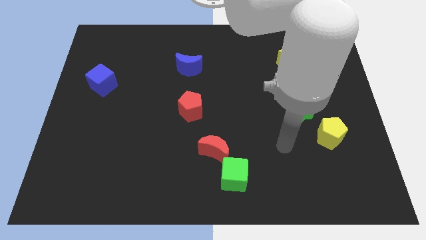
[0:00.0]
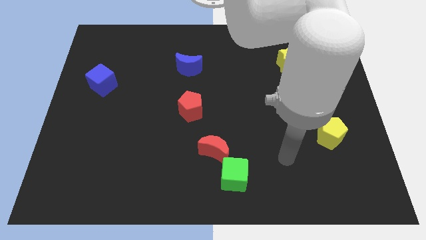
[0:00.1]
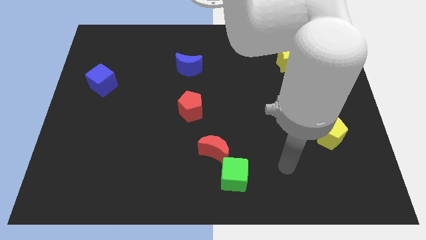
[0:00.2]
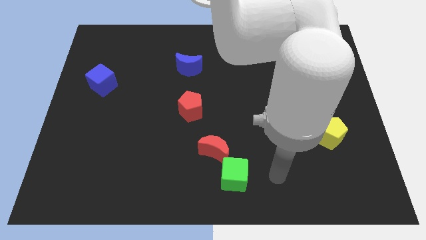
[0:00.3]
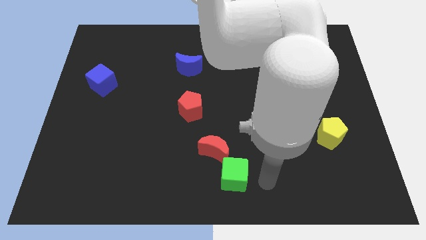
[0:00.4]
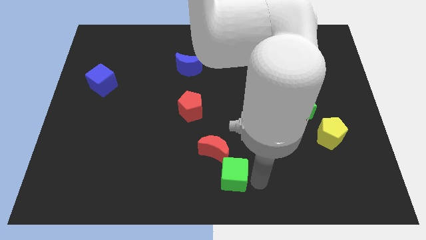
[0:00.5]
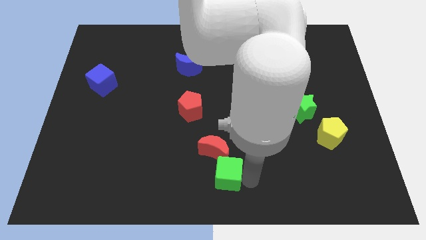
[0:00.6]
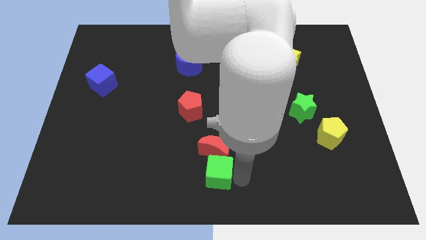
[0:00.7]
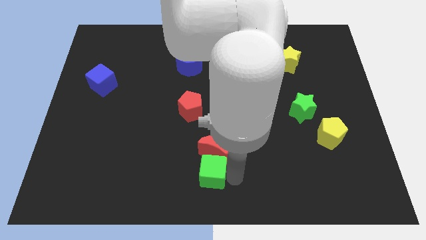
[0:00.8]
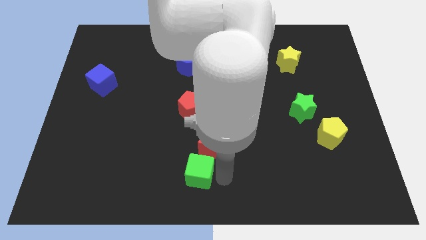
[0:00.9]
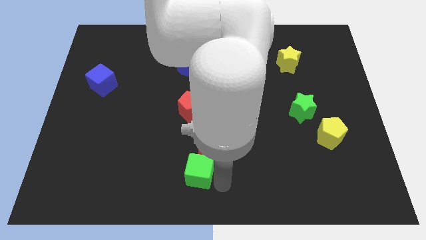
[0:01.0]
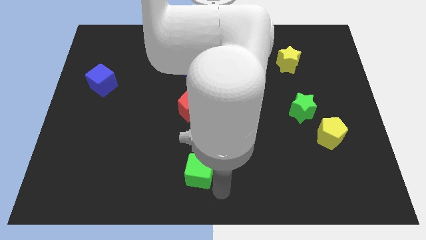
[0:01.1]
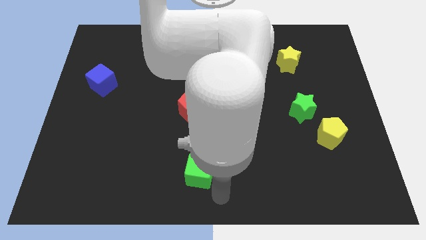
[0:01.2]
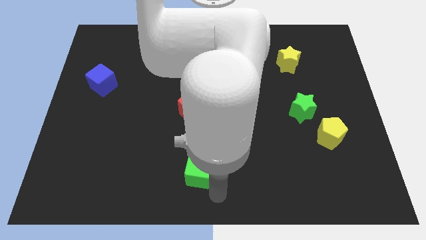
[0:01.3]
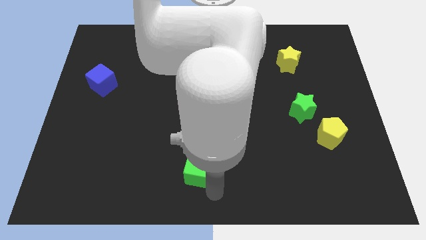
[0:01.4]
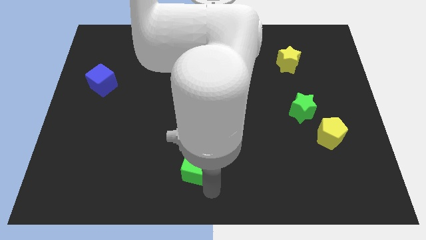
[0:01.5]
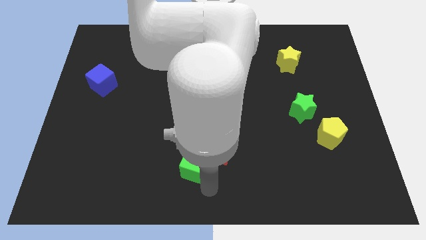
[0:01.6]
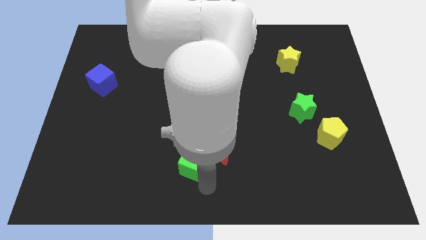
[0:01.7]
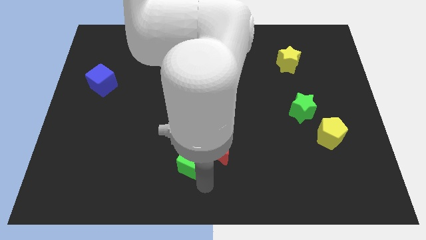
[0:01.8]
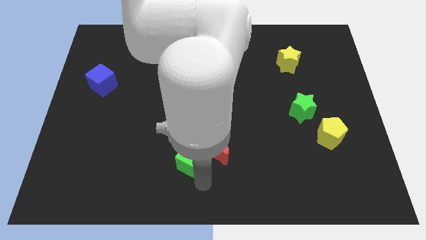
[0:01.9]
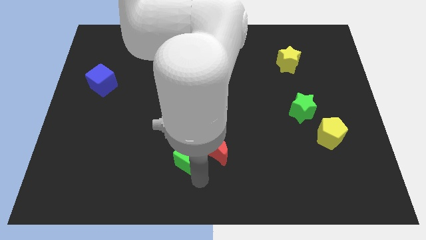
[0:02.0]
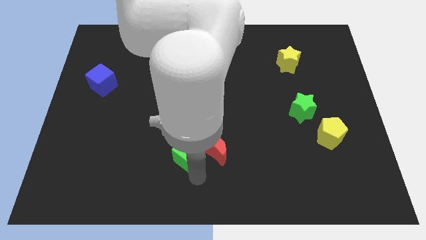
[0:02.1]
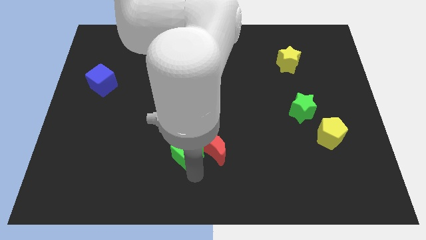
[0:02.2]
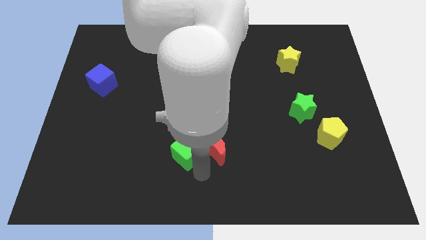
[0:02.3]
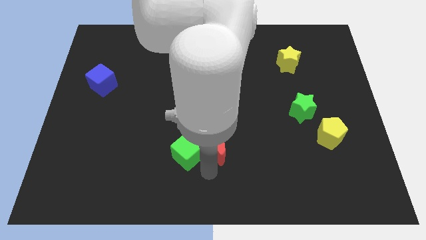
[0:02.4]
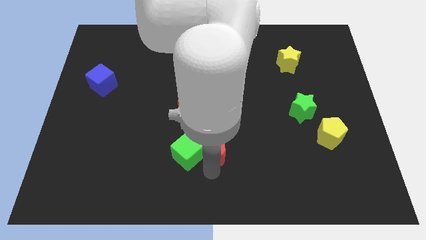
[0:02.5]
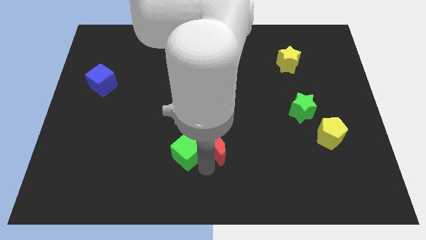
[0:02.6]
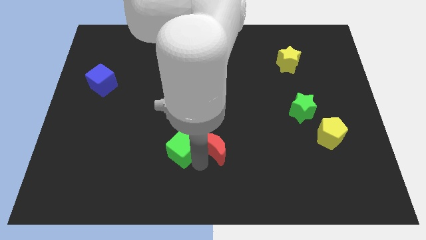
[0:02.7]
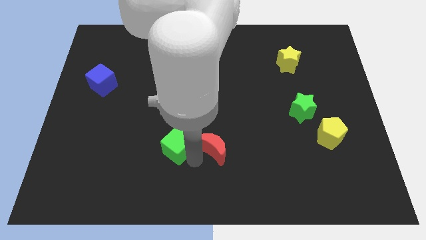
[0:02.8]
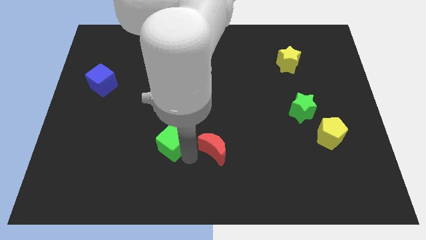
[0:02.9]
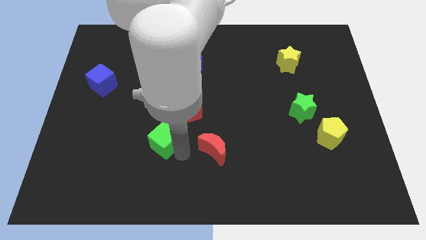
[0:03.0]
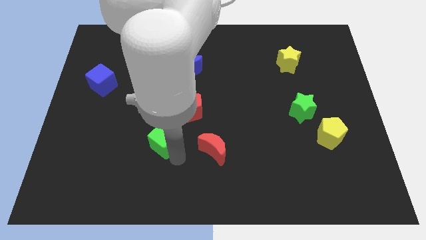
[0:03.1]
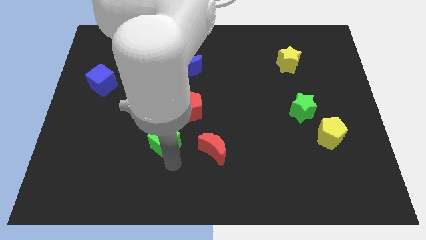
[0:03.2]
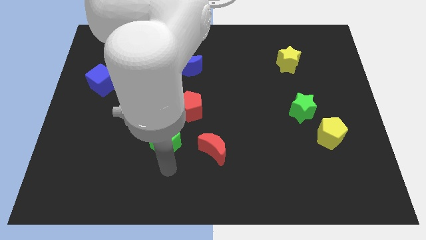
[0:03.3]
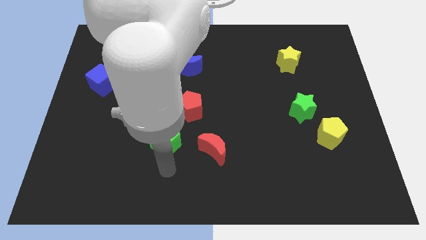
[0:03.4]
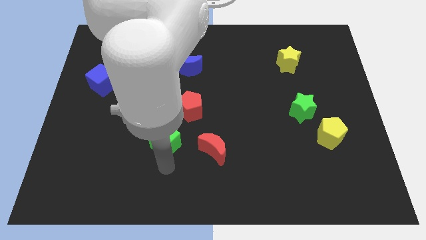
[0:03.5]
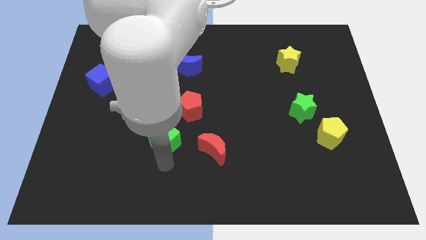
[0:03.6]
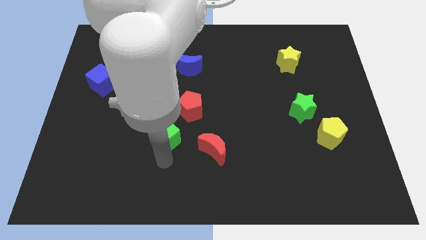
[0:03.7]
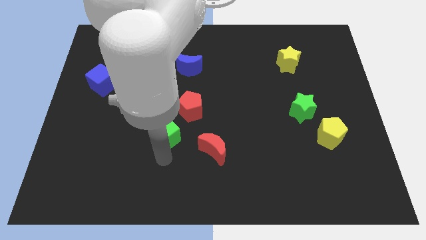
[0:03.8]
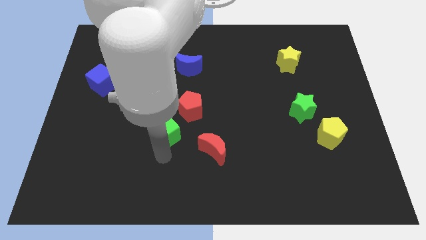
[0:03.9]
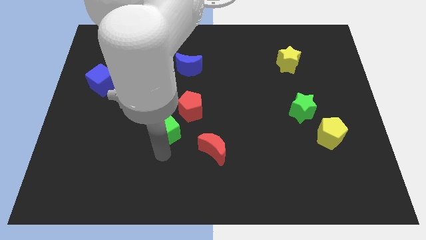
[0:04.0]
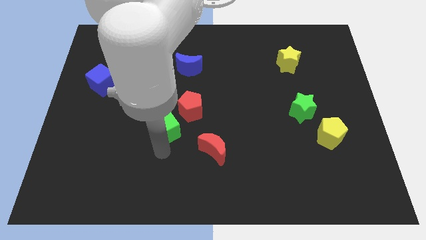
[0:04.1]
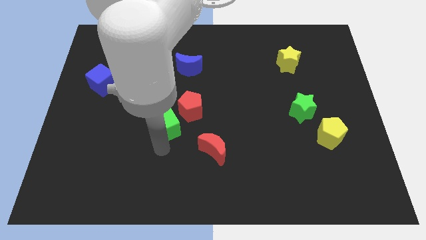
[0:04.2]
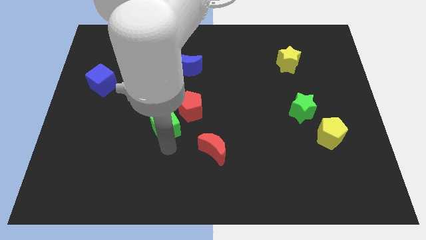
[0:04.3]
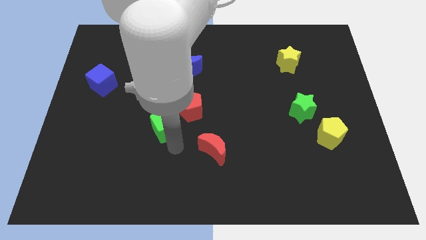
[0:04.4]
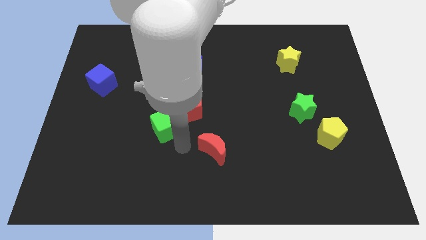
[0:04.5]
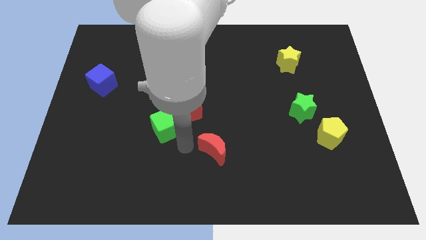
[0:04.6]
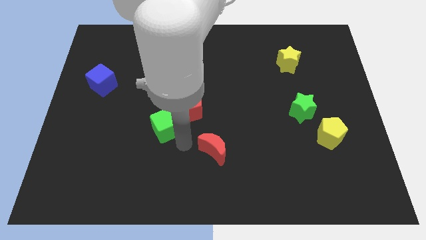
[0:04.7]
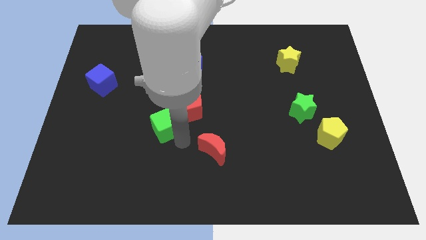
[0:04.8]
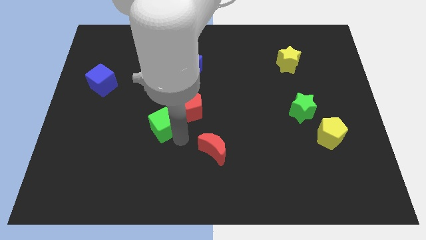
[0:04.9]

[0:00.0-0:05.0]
put the green cube left of the red pentagon
